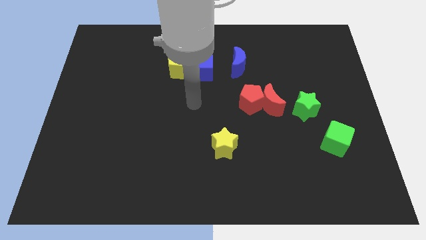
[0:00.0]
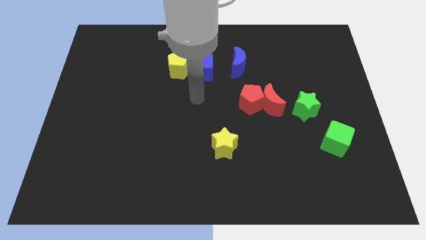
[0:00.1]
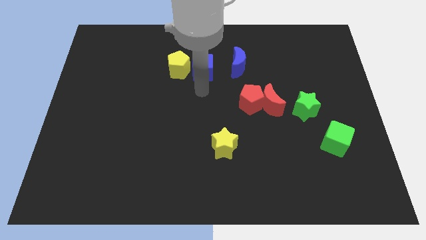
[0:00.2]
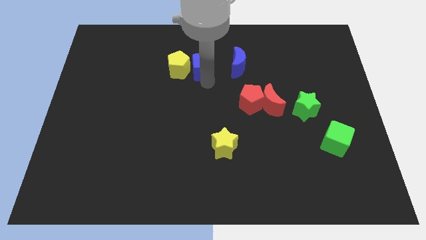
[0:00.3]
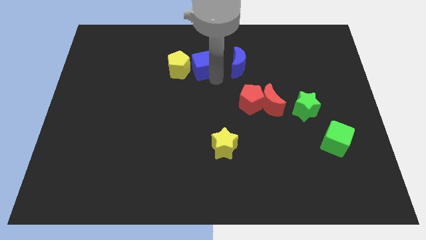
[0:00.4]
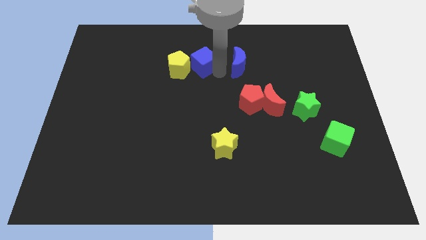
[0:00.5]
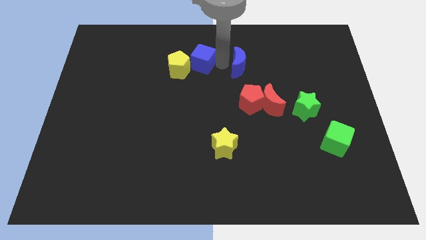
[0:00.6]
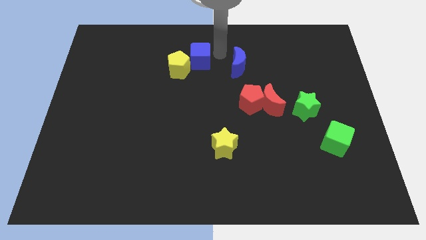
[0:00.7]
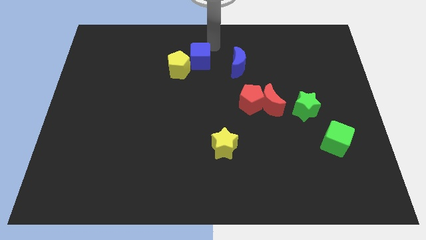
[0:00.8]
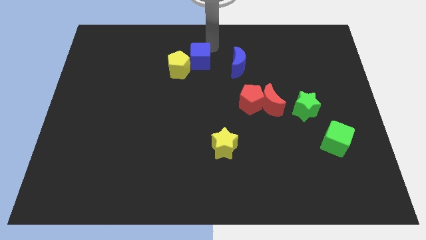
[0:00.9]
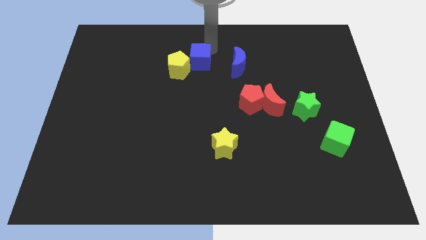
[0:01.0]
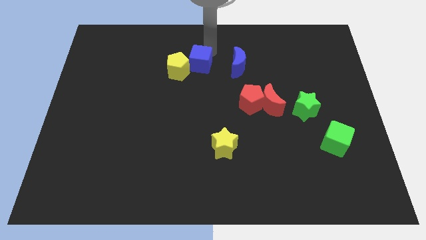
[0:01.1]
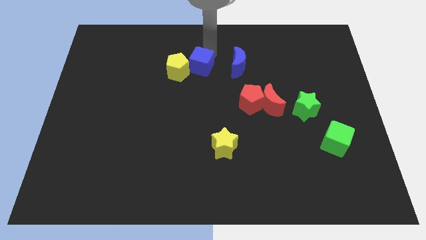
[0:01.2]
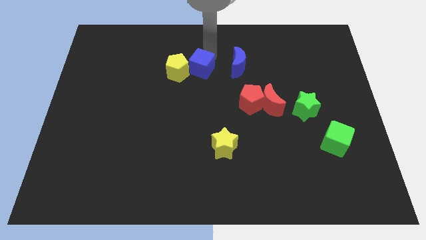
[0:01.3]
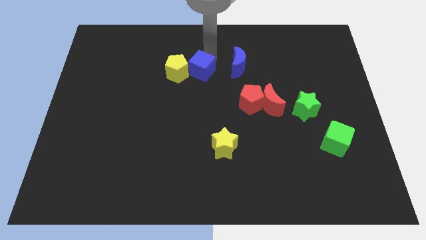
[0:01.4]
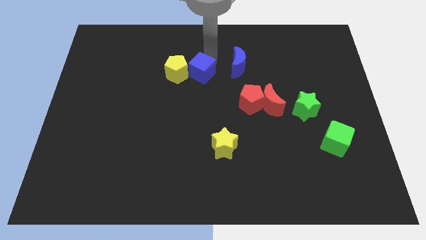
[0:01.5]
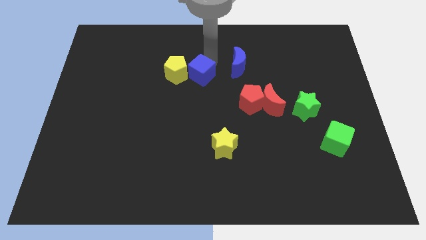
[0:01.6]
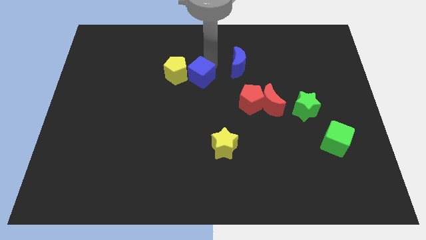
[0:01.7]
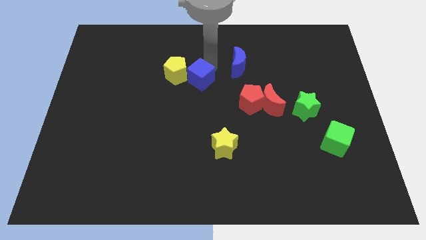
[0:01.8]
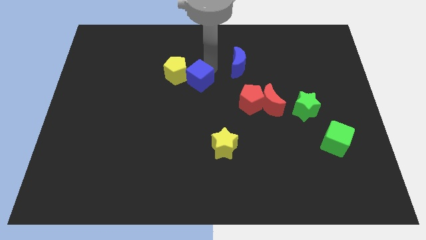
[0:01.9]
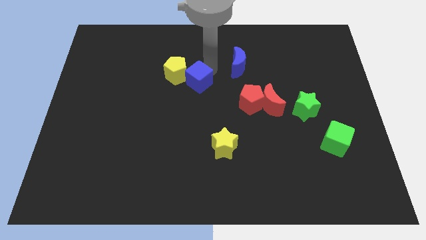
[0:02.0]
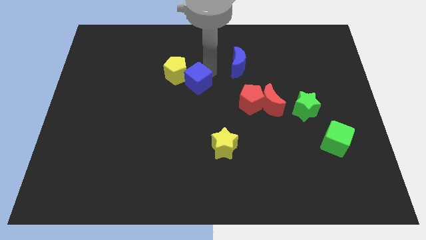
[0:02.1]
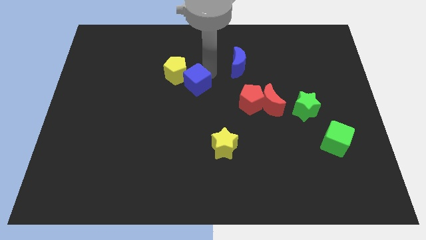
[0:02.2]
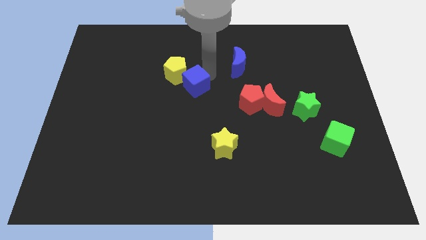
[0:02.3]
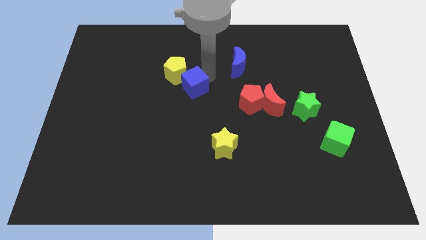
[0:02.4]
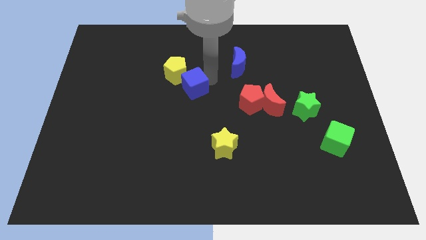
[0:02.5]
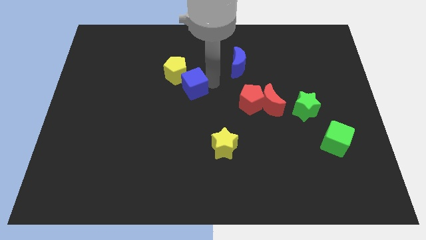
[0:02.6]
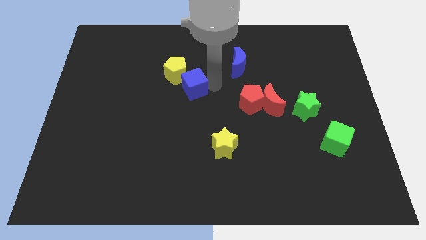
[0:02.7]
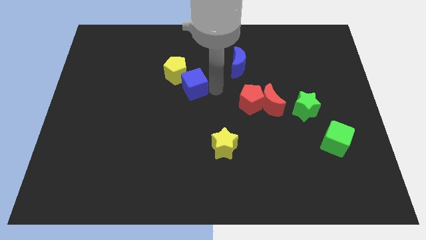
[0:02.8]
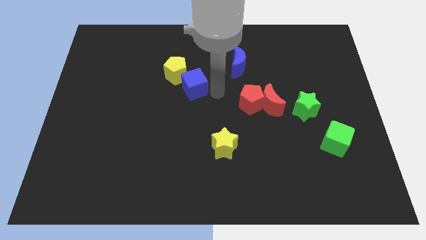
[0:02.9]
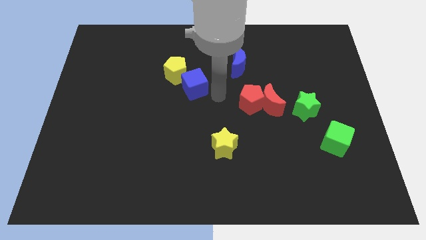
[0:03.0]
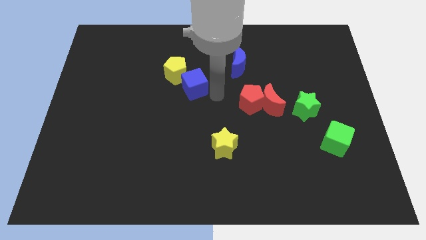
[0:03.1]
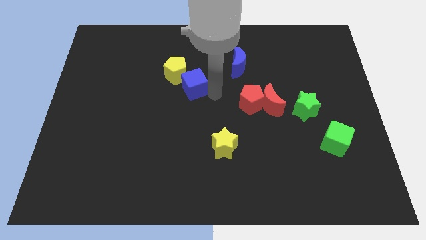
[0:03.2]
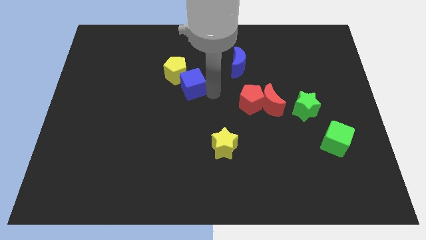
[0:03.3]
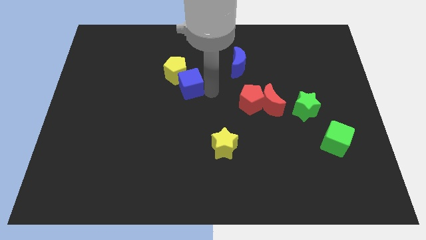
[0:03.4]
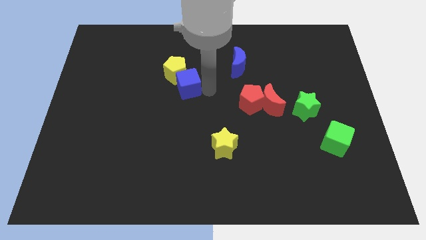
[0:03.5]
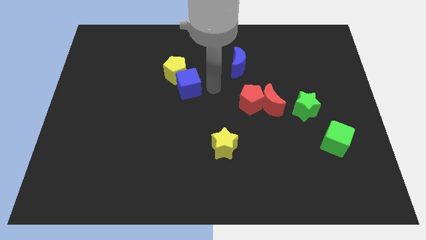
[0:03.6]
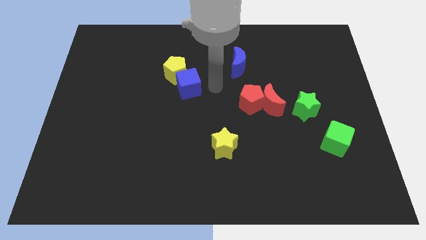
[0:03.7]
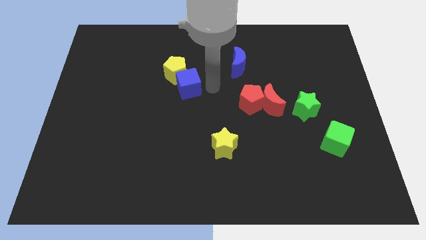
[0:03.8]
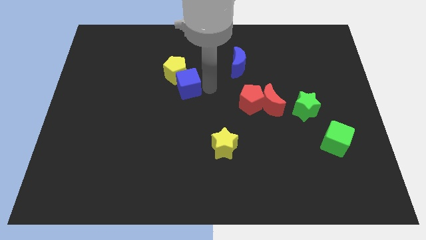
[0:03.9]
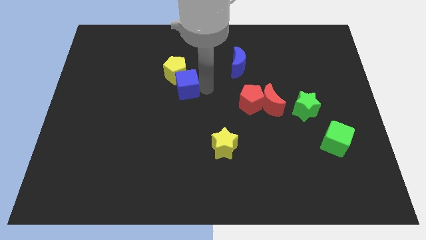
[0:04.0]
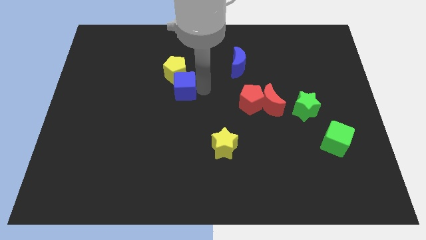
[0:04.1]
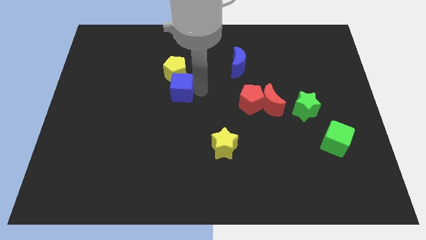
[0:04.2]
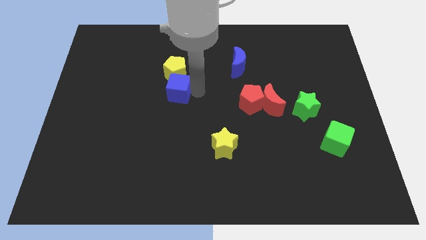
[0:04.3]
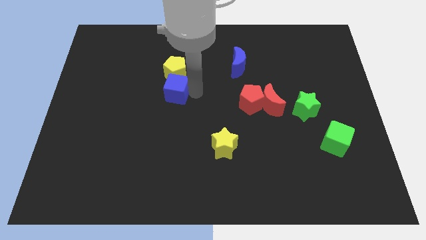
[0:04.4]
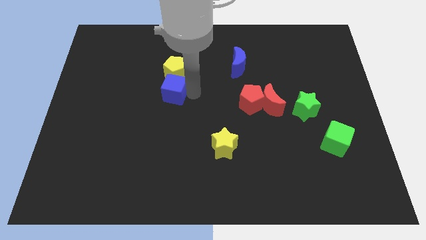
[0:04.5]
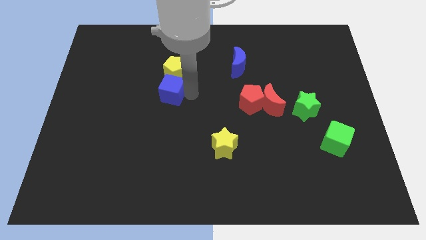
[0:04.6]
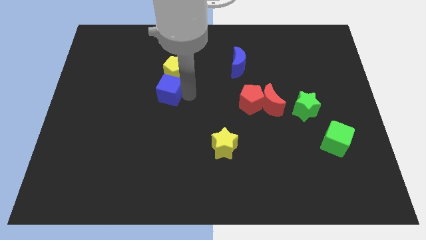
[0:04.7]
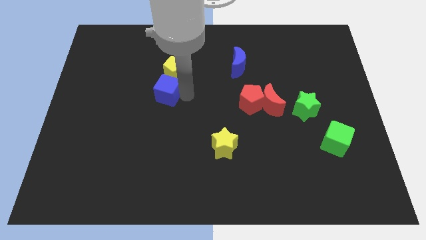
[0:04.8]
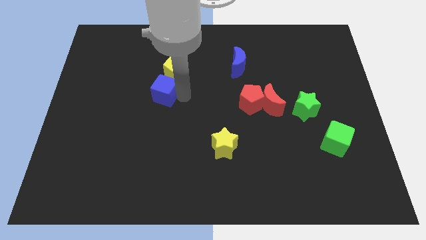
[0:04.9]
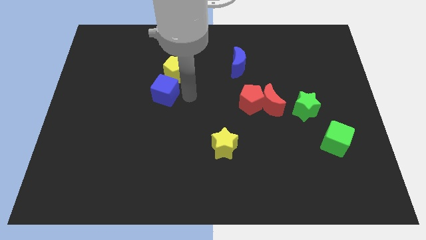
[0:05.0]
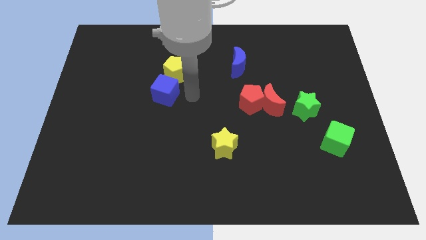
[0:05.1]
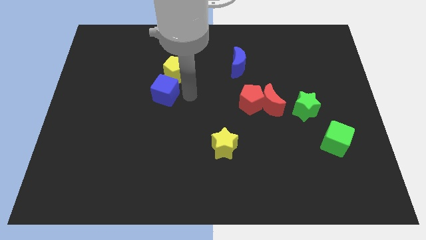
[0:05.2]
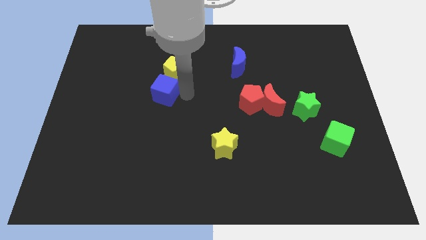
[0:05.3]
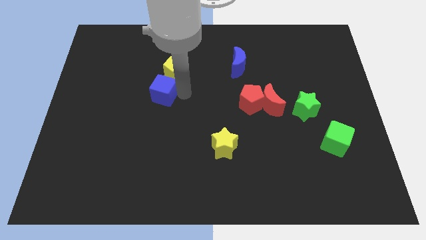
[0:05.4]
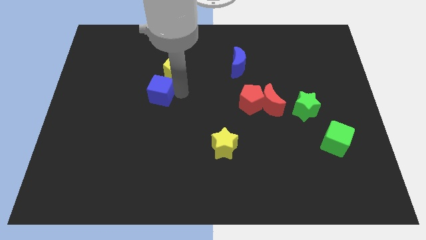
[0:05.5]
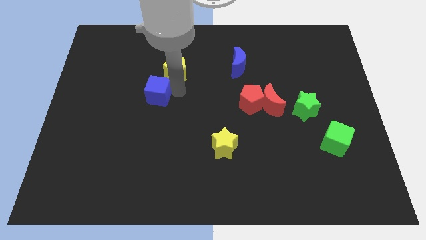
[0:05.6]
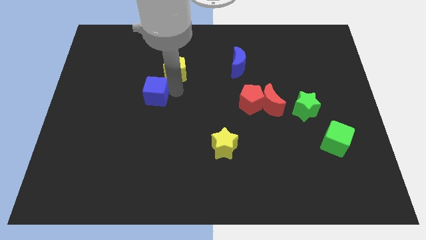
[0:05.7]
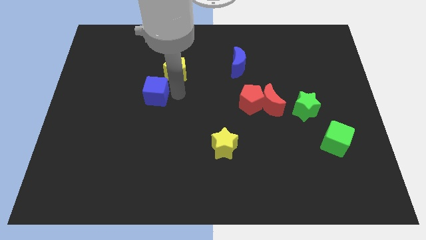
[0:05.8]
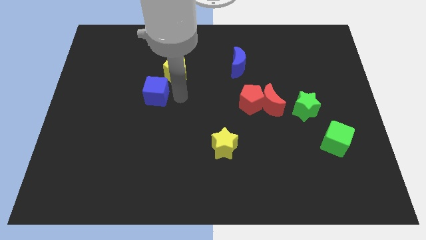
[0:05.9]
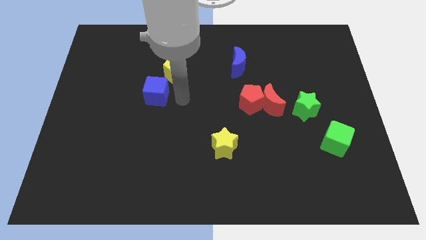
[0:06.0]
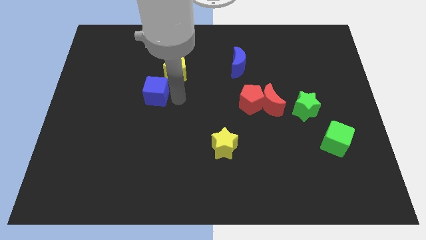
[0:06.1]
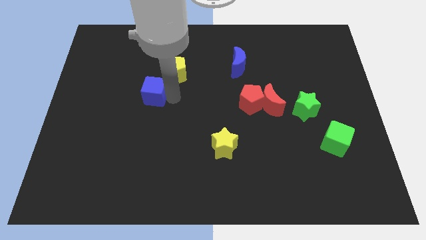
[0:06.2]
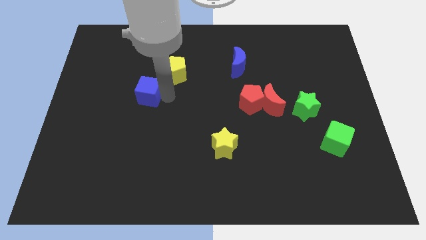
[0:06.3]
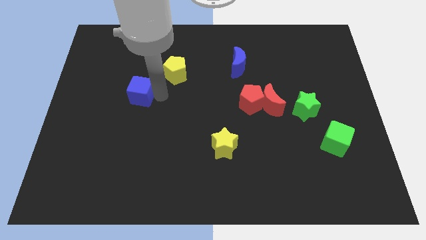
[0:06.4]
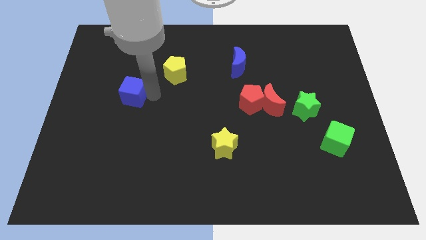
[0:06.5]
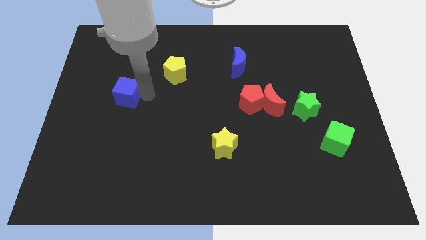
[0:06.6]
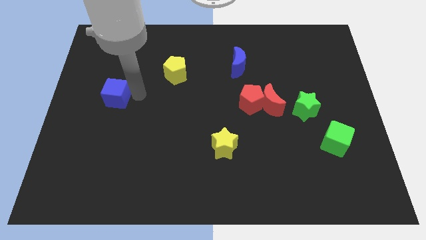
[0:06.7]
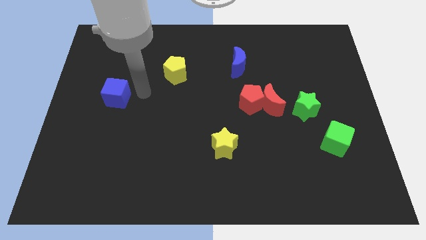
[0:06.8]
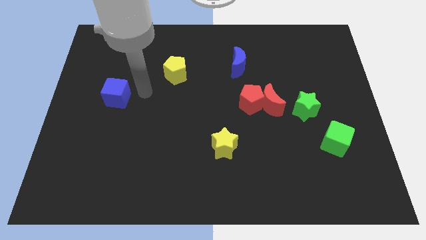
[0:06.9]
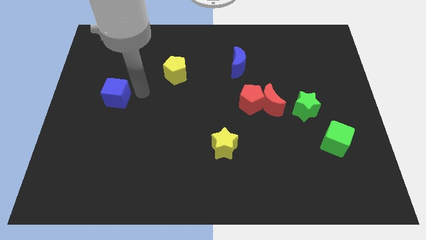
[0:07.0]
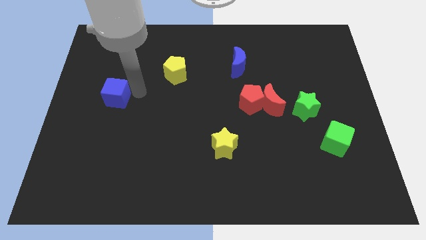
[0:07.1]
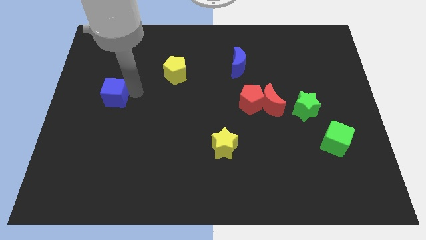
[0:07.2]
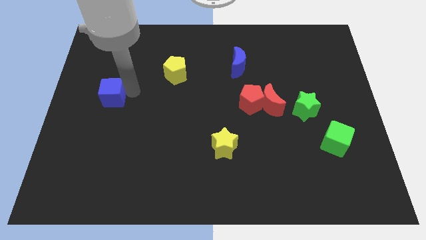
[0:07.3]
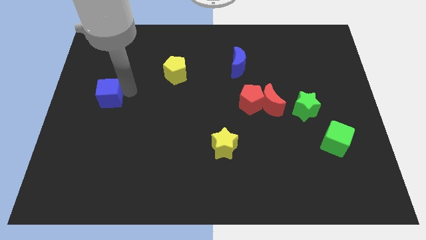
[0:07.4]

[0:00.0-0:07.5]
slide the blue cube to the center left
